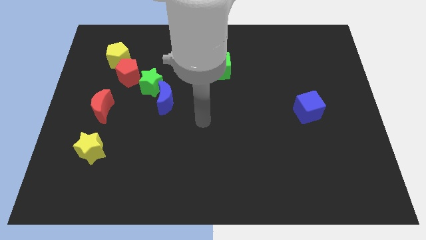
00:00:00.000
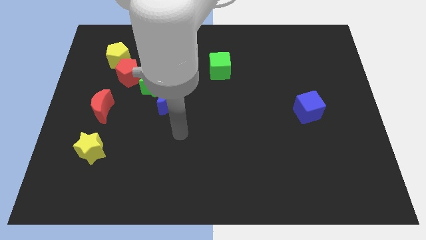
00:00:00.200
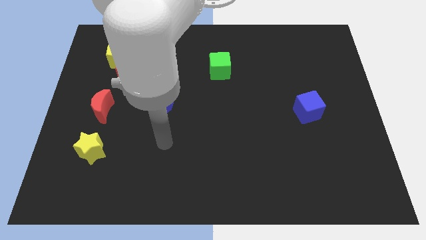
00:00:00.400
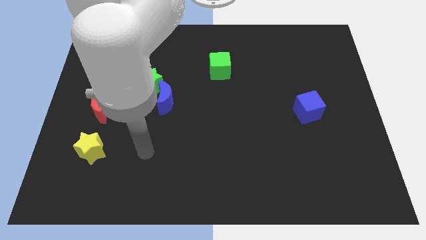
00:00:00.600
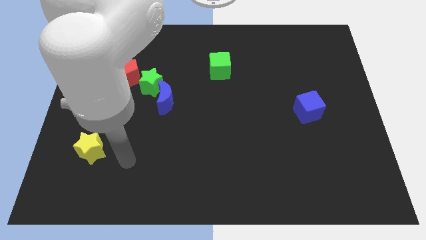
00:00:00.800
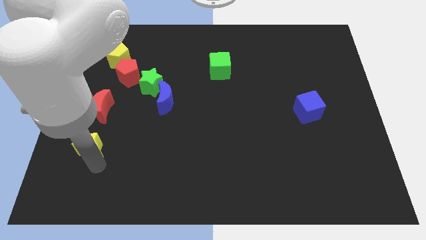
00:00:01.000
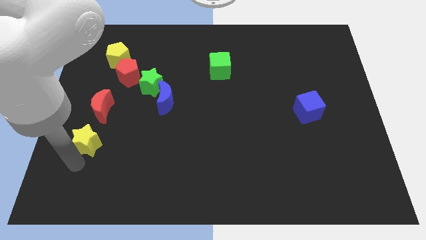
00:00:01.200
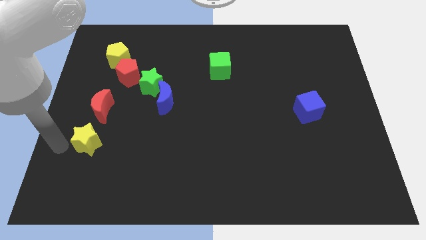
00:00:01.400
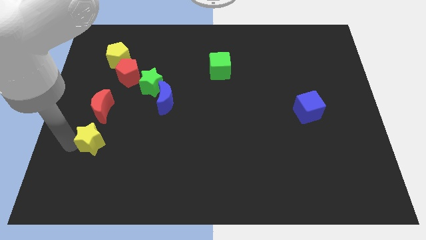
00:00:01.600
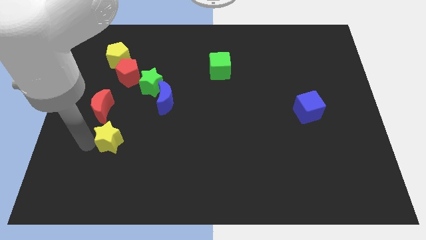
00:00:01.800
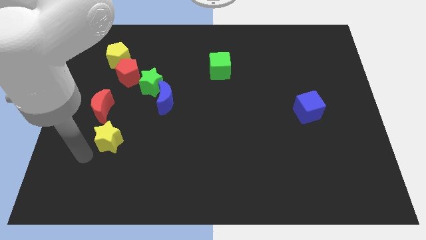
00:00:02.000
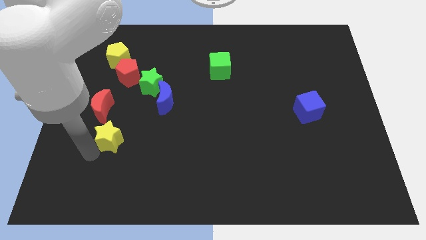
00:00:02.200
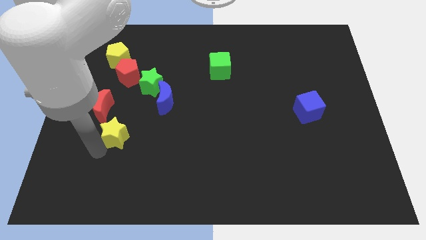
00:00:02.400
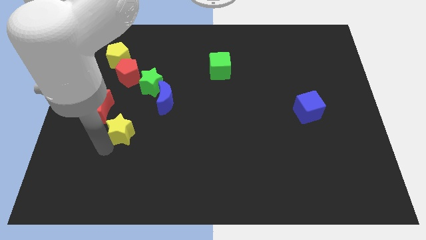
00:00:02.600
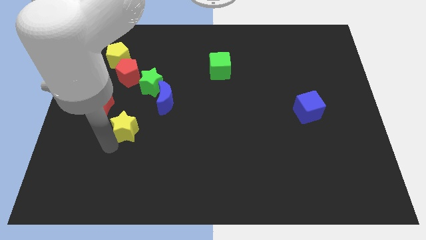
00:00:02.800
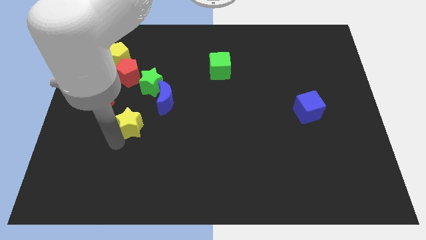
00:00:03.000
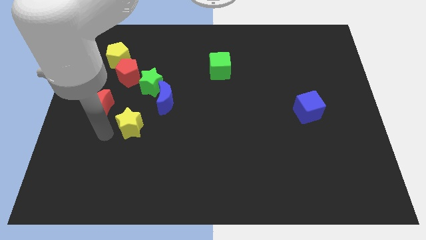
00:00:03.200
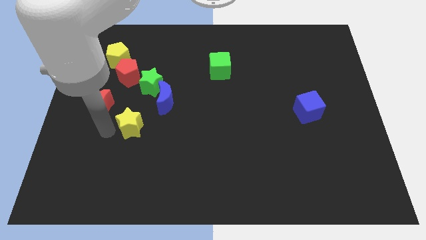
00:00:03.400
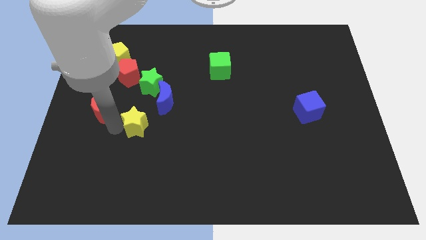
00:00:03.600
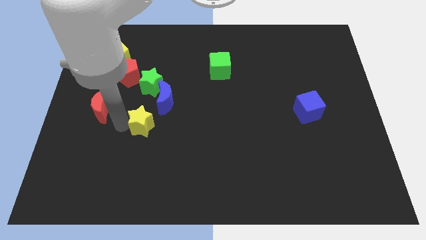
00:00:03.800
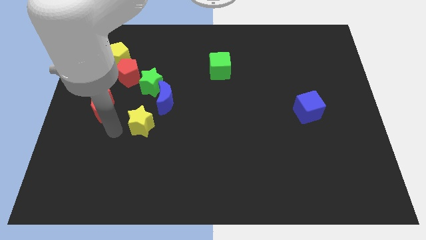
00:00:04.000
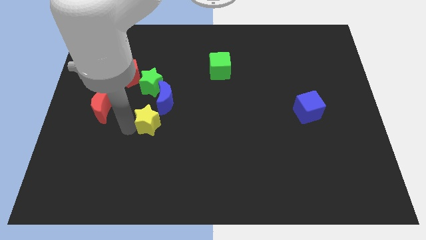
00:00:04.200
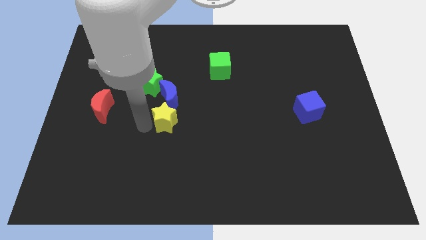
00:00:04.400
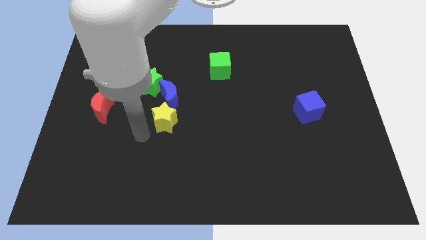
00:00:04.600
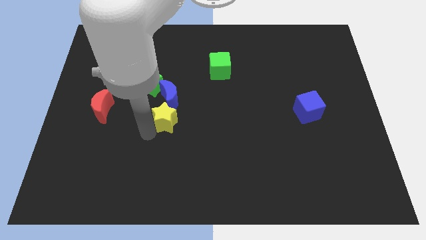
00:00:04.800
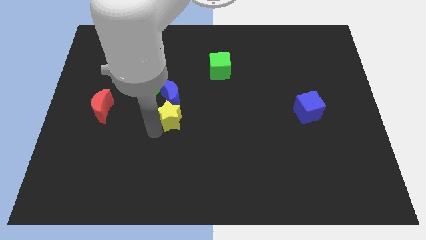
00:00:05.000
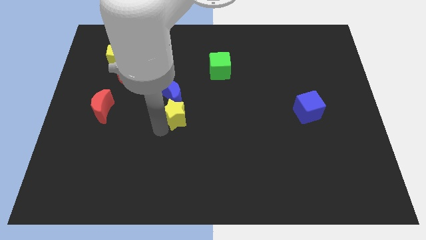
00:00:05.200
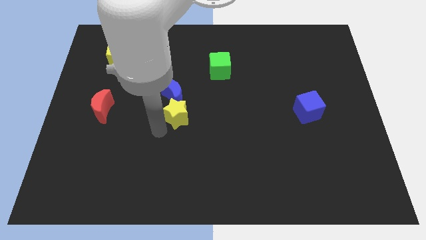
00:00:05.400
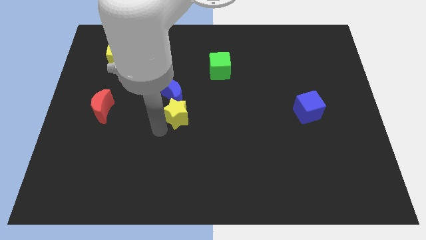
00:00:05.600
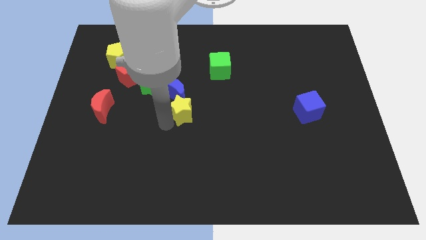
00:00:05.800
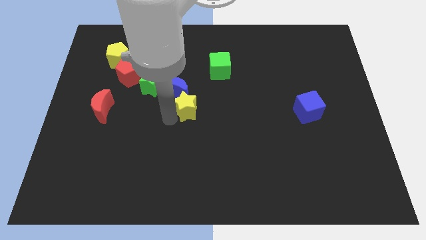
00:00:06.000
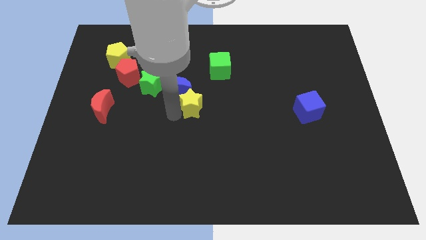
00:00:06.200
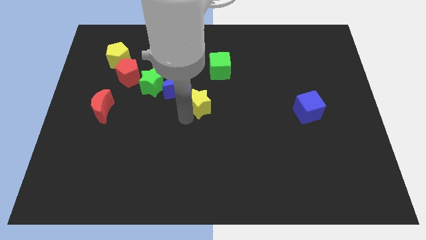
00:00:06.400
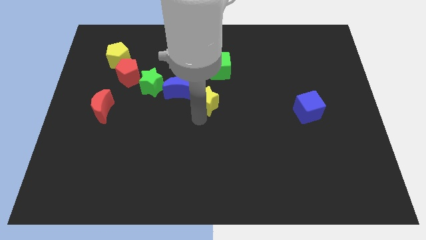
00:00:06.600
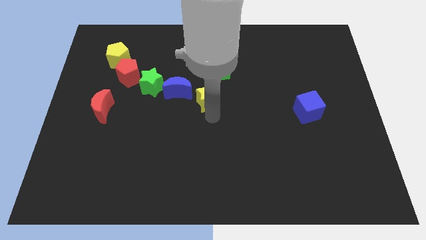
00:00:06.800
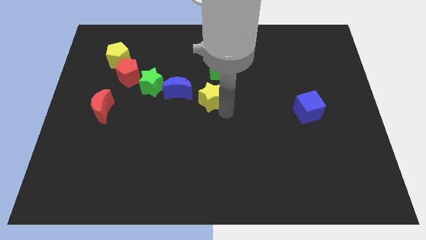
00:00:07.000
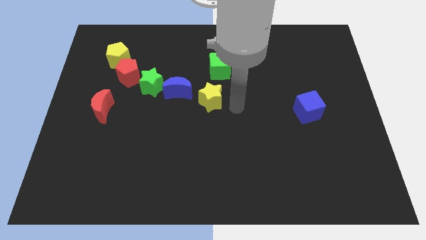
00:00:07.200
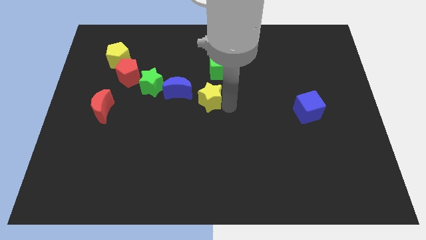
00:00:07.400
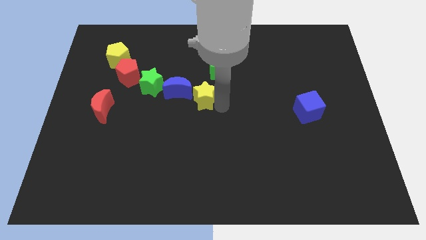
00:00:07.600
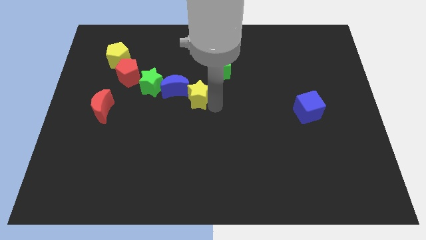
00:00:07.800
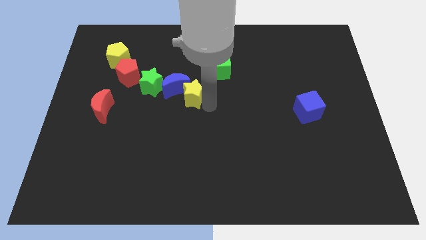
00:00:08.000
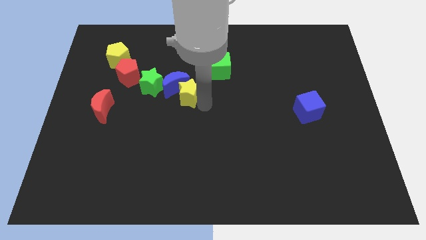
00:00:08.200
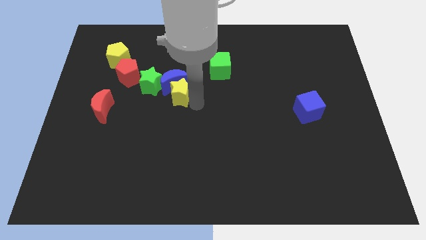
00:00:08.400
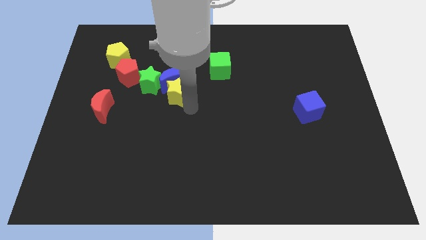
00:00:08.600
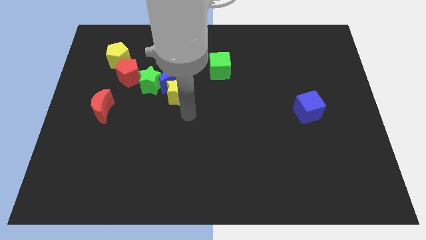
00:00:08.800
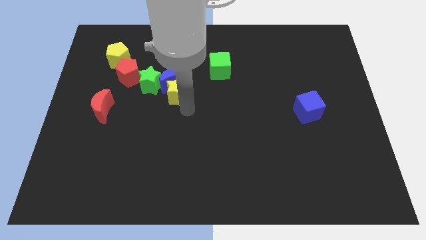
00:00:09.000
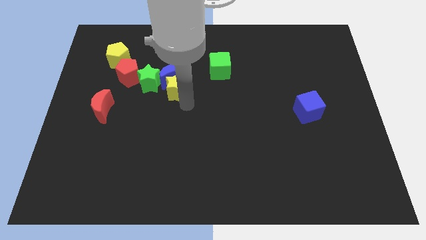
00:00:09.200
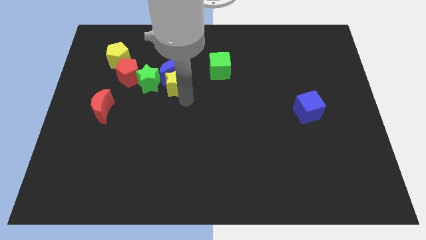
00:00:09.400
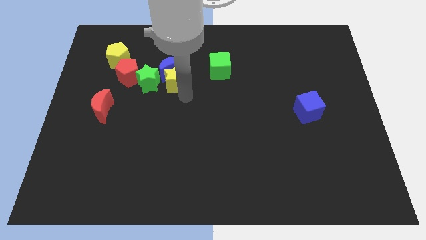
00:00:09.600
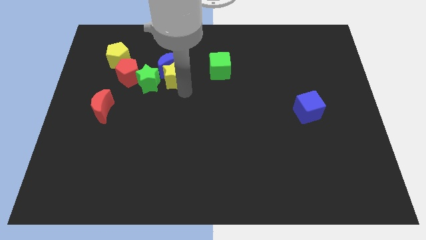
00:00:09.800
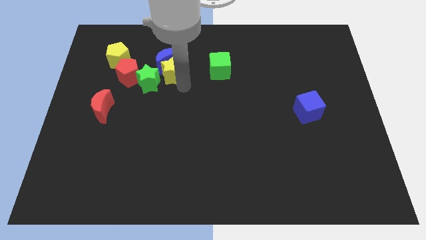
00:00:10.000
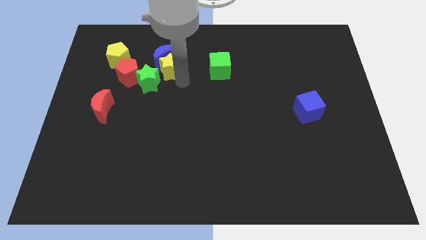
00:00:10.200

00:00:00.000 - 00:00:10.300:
slide the yellow star right of the yellow pentagon

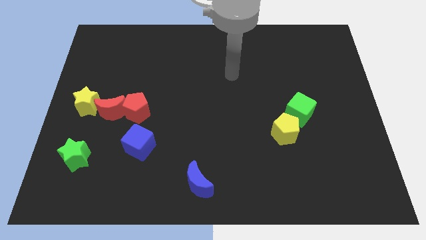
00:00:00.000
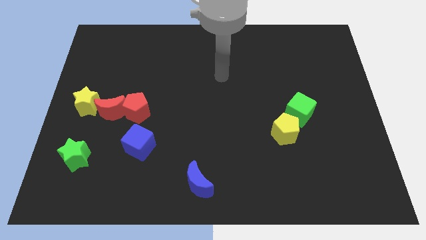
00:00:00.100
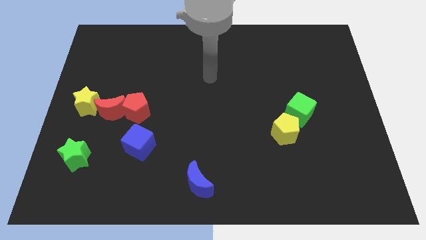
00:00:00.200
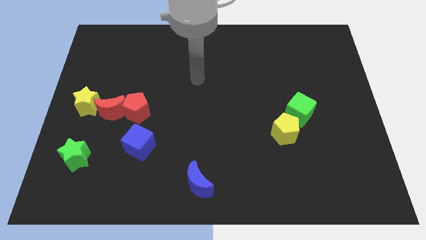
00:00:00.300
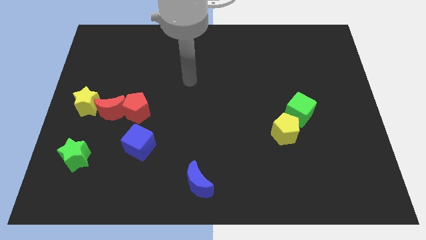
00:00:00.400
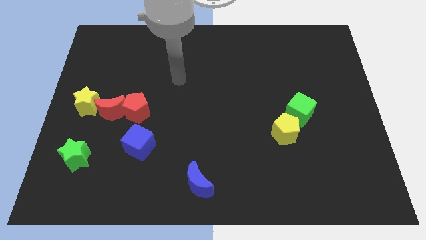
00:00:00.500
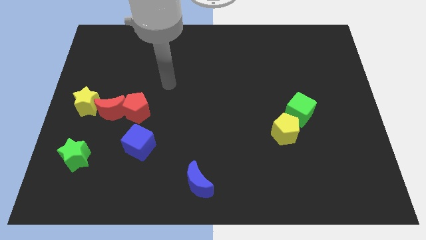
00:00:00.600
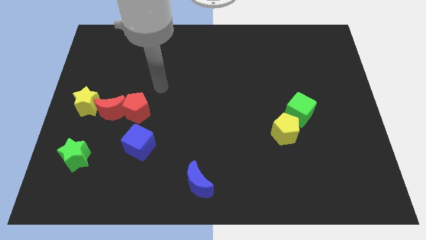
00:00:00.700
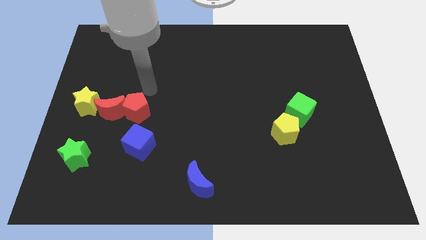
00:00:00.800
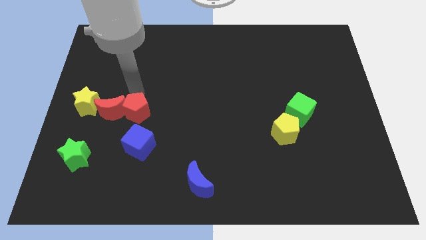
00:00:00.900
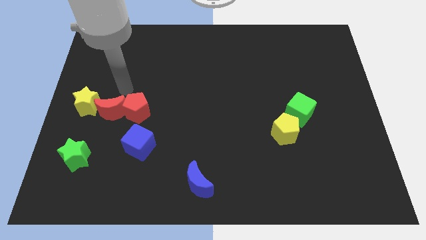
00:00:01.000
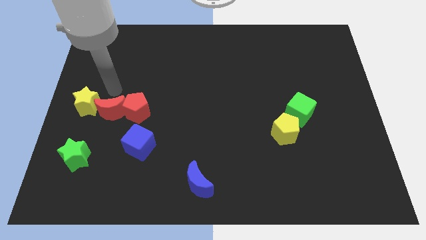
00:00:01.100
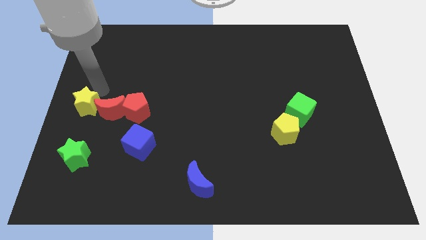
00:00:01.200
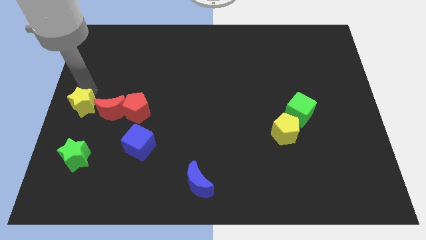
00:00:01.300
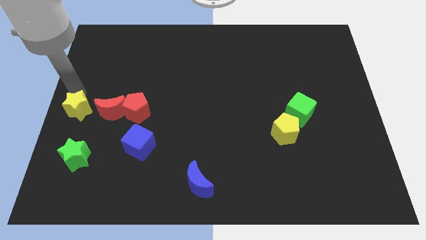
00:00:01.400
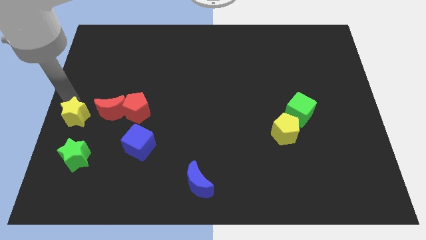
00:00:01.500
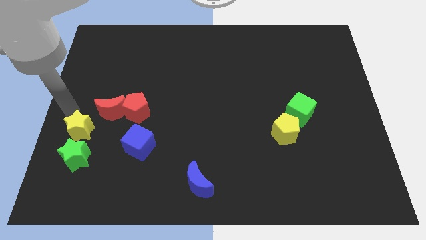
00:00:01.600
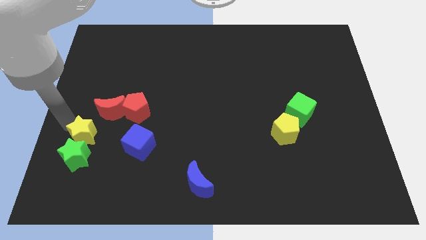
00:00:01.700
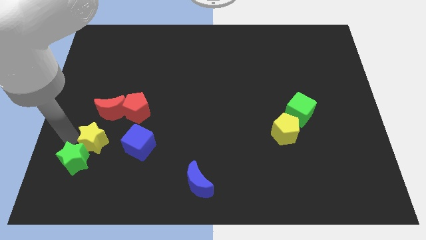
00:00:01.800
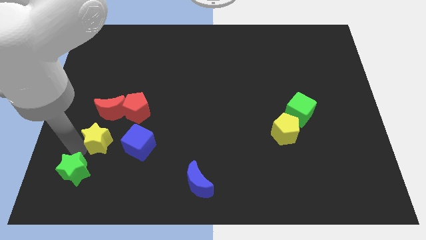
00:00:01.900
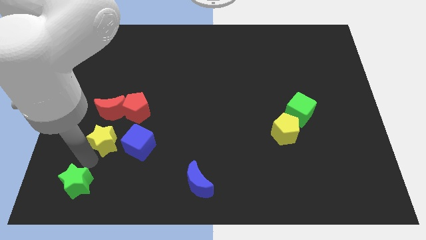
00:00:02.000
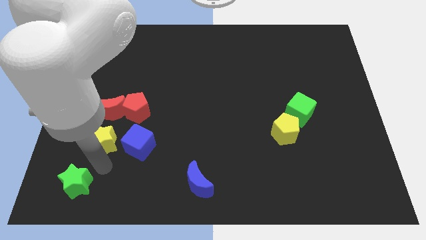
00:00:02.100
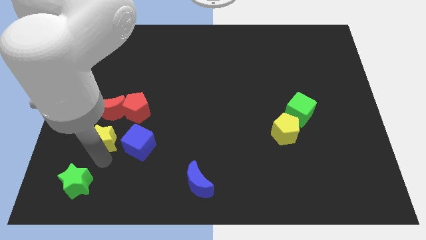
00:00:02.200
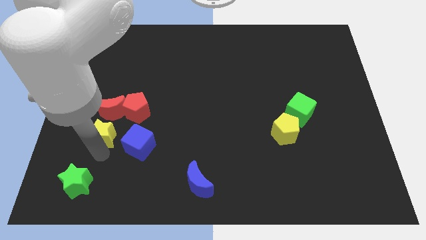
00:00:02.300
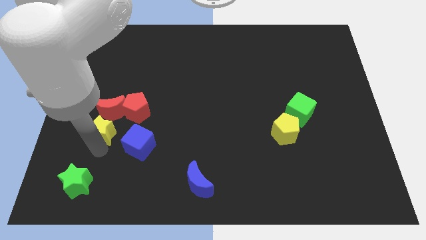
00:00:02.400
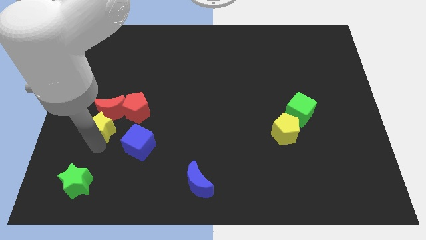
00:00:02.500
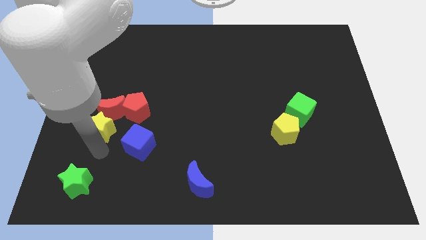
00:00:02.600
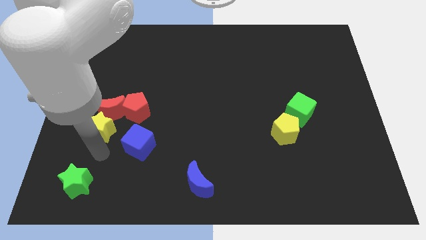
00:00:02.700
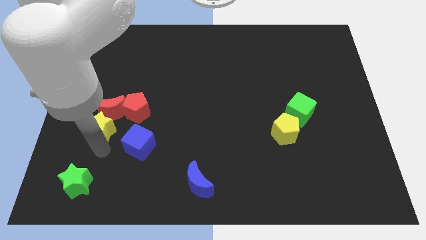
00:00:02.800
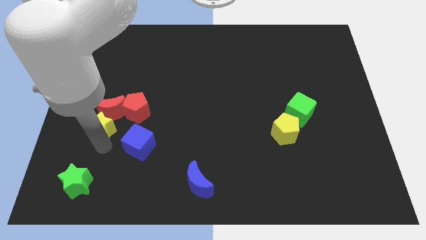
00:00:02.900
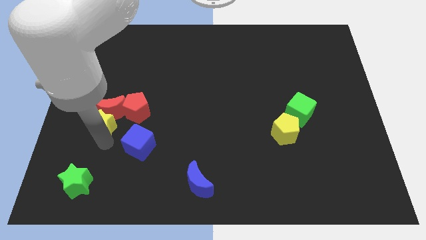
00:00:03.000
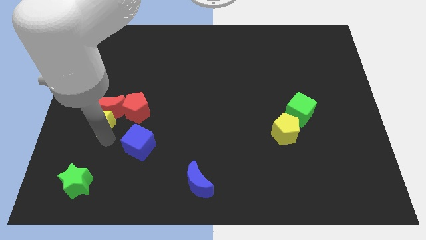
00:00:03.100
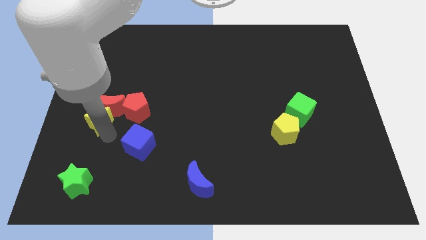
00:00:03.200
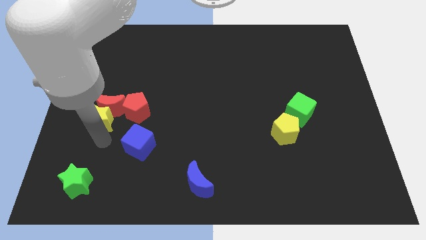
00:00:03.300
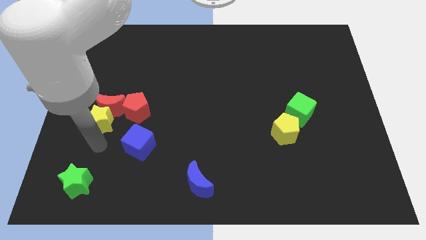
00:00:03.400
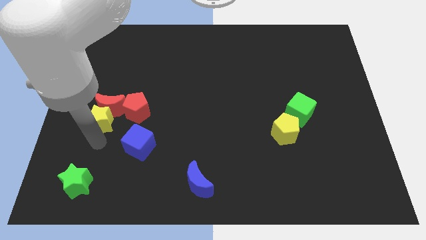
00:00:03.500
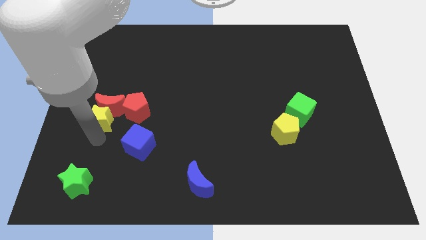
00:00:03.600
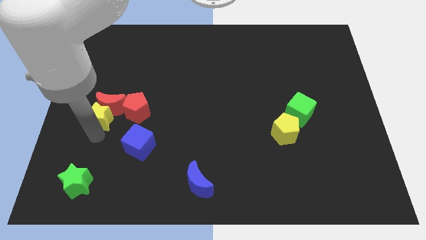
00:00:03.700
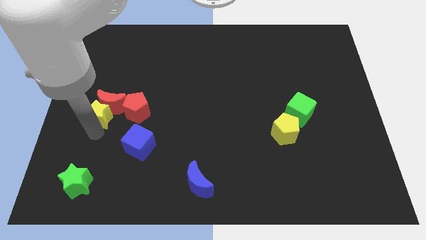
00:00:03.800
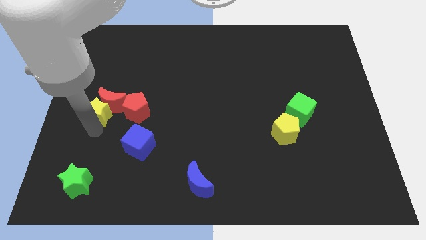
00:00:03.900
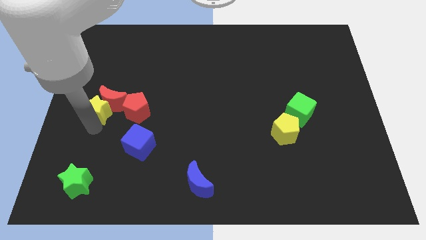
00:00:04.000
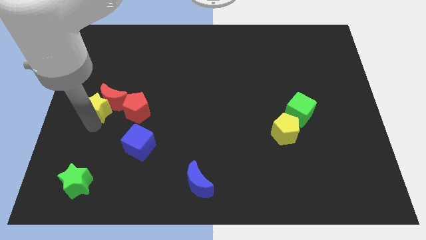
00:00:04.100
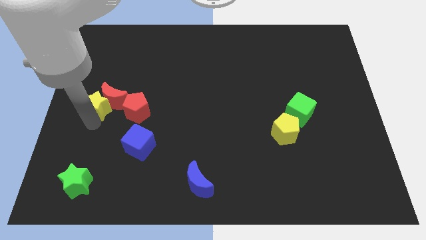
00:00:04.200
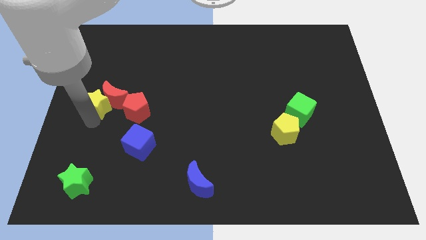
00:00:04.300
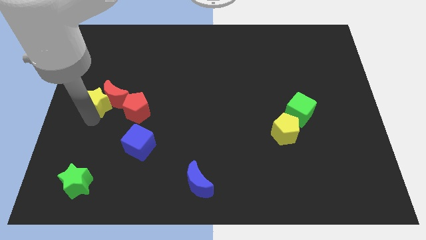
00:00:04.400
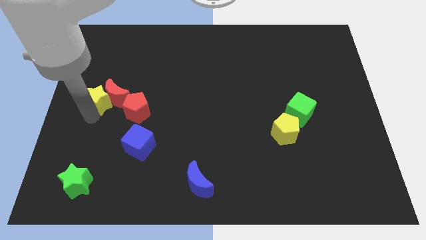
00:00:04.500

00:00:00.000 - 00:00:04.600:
move the yellow star diagonally up and to the left of the red pentagon
